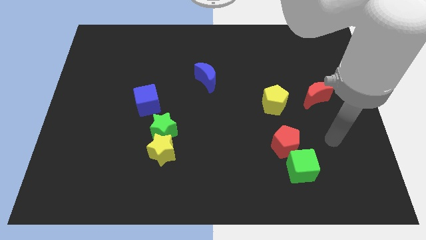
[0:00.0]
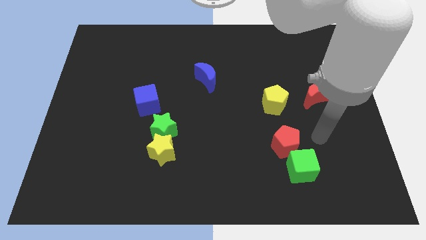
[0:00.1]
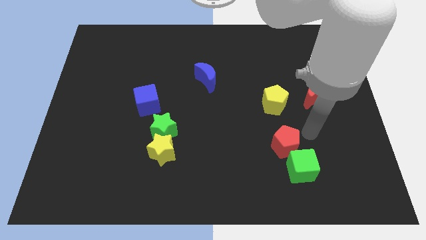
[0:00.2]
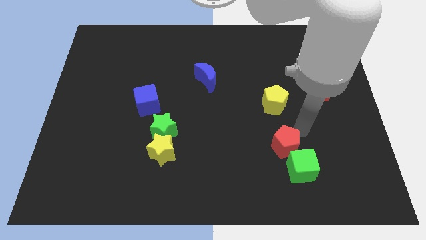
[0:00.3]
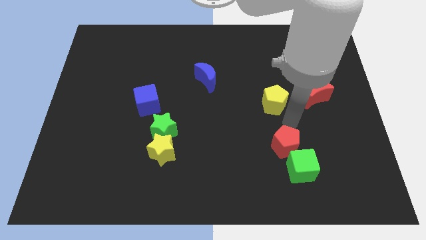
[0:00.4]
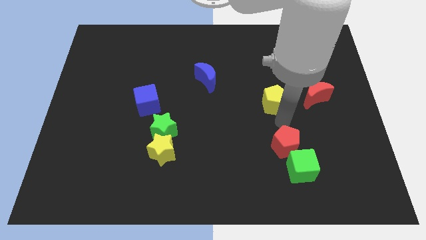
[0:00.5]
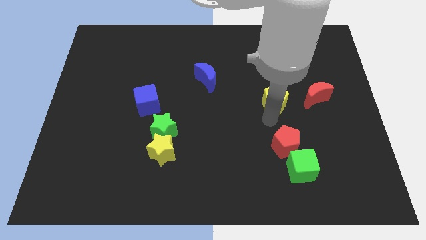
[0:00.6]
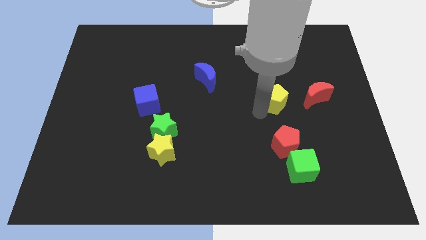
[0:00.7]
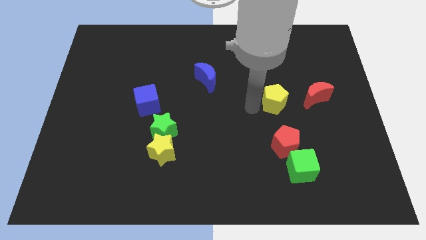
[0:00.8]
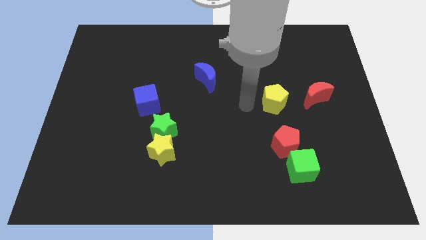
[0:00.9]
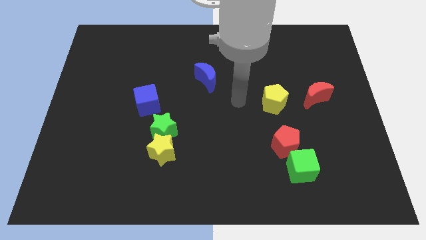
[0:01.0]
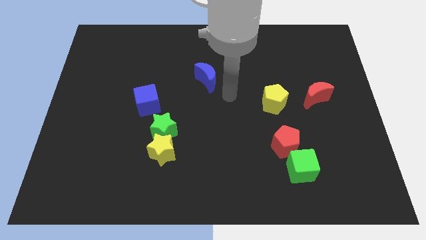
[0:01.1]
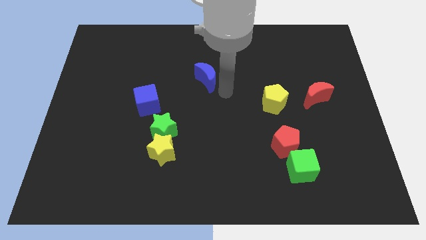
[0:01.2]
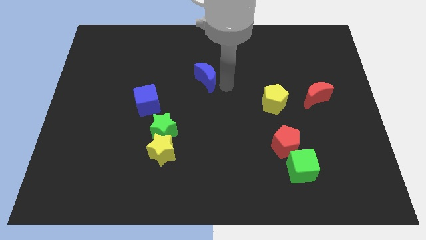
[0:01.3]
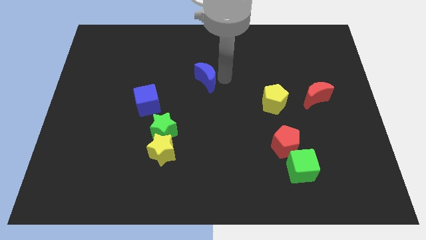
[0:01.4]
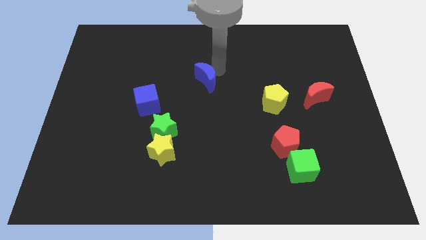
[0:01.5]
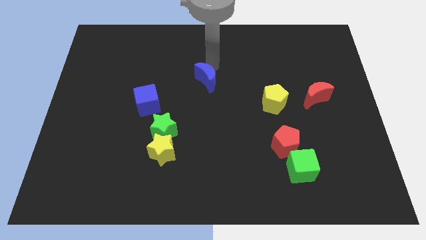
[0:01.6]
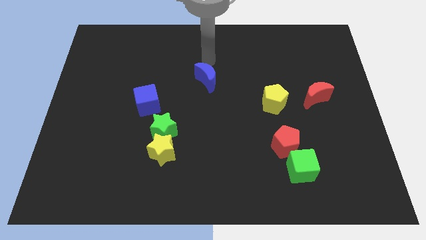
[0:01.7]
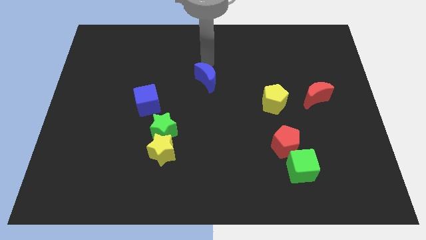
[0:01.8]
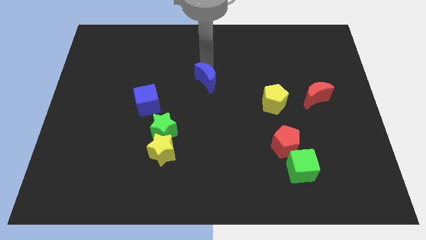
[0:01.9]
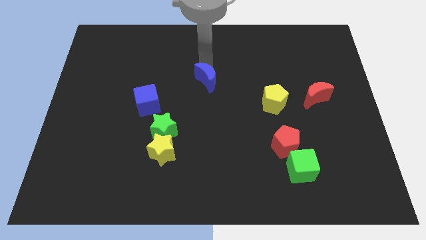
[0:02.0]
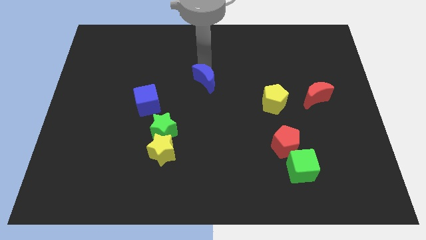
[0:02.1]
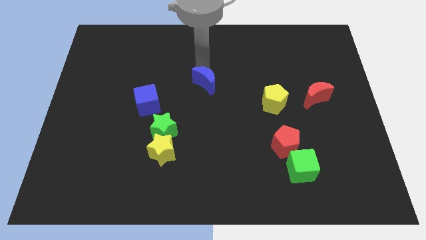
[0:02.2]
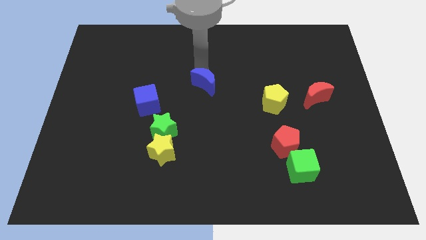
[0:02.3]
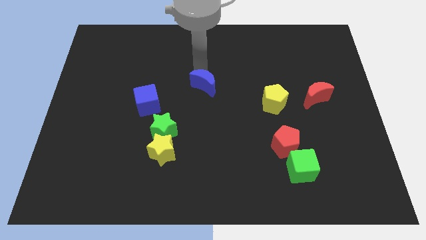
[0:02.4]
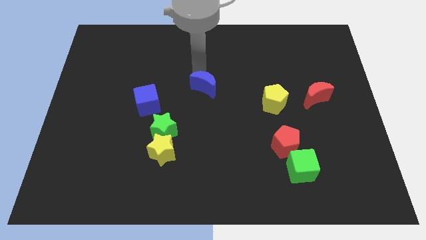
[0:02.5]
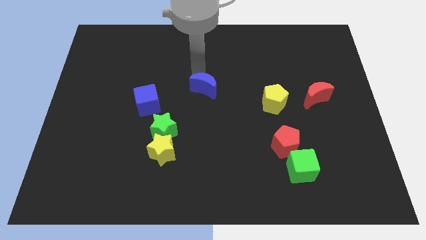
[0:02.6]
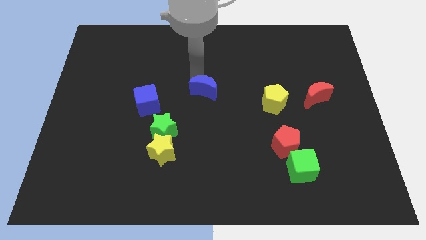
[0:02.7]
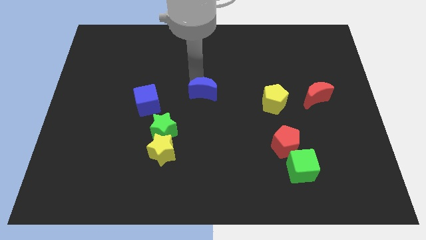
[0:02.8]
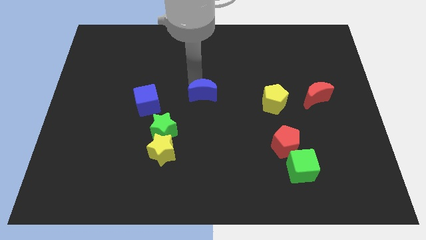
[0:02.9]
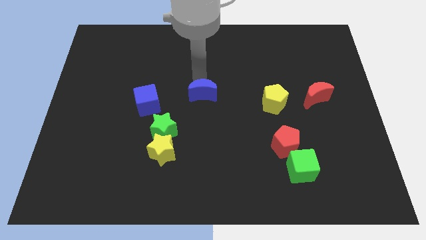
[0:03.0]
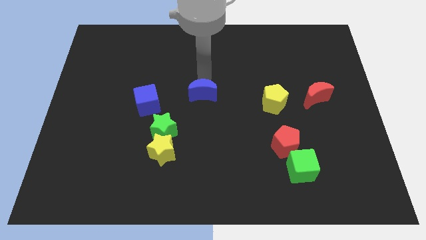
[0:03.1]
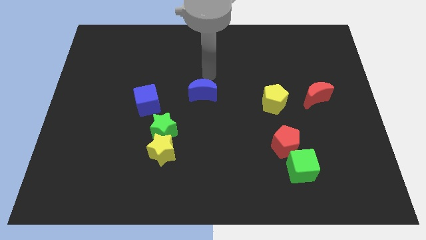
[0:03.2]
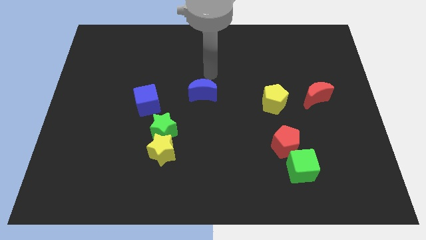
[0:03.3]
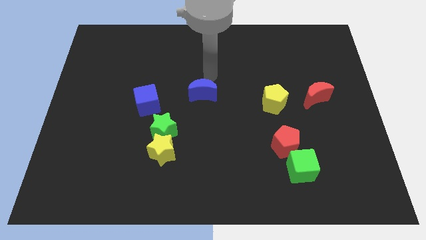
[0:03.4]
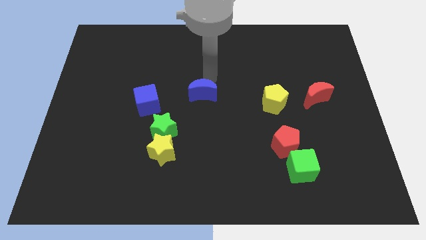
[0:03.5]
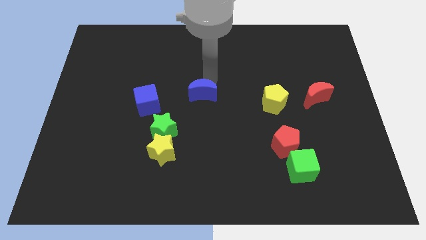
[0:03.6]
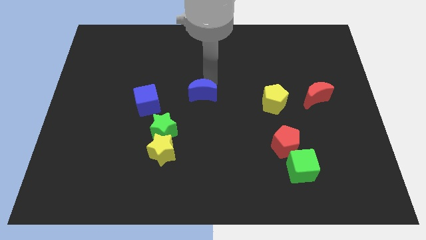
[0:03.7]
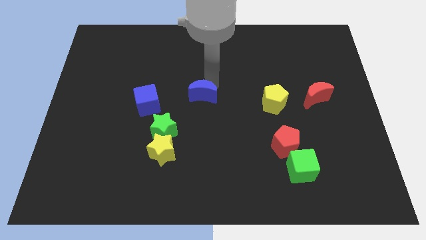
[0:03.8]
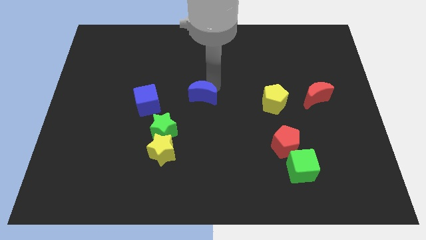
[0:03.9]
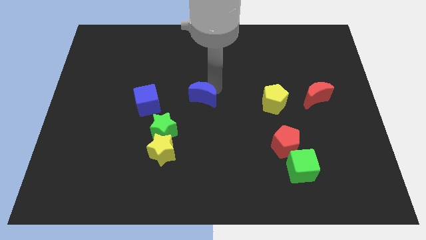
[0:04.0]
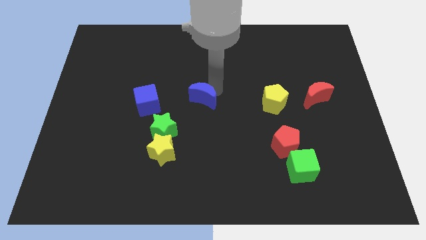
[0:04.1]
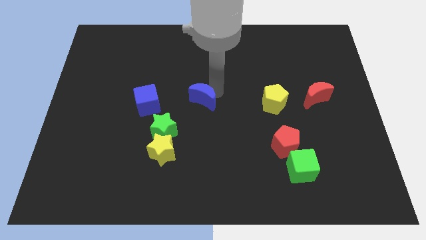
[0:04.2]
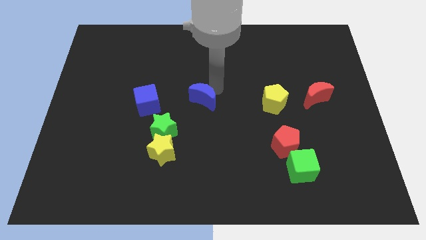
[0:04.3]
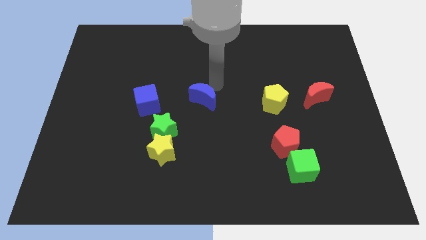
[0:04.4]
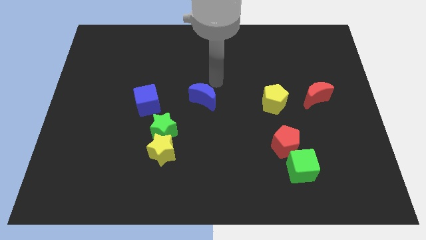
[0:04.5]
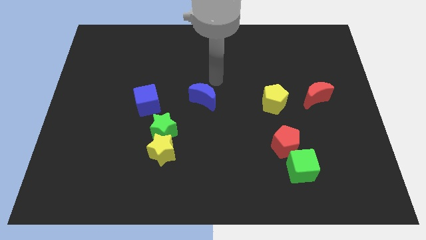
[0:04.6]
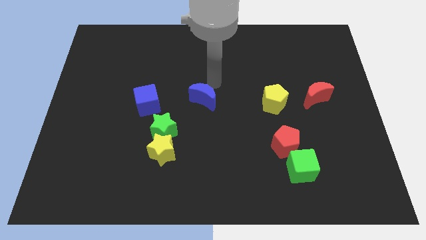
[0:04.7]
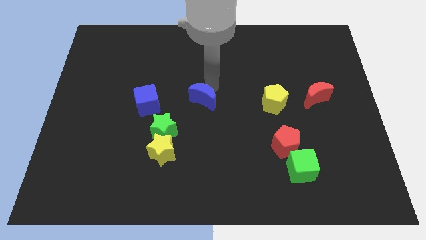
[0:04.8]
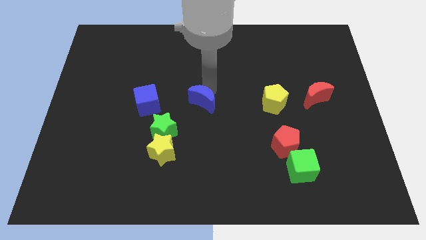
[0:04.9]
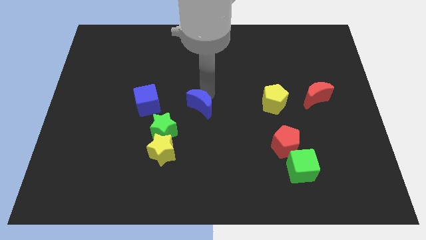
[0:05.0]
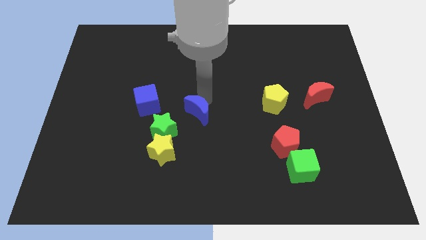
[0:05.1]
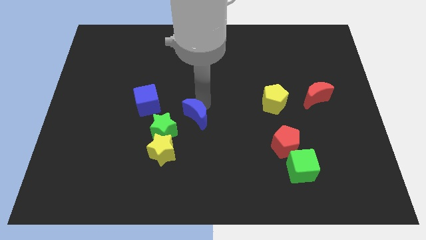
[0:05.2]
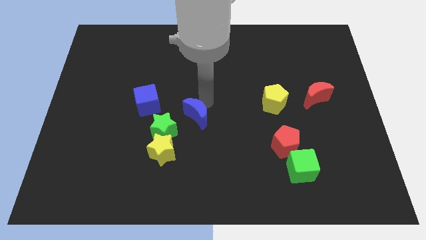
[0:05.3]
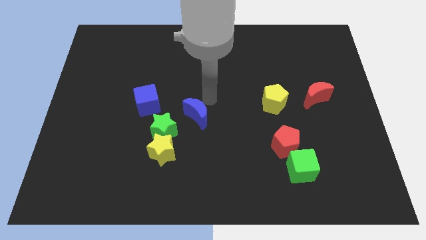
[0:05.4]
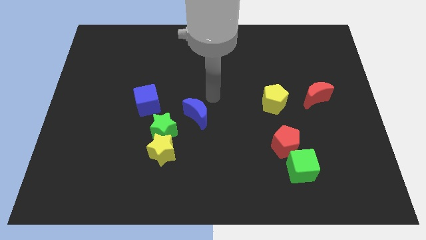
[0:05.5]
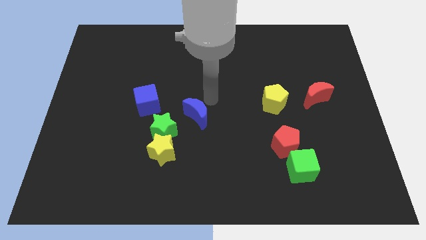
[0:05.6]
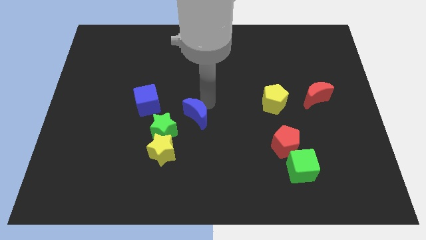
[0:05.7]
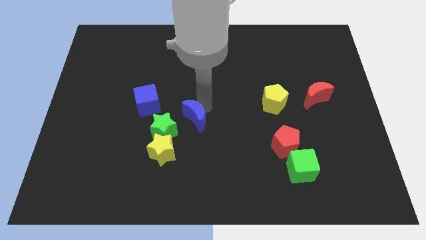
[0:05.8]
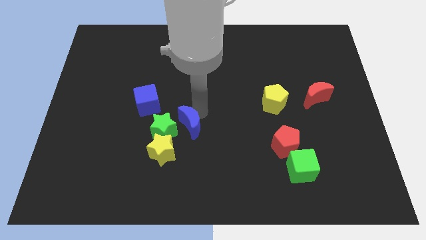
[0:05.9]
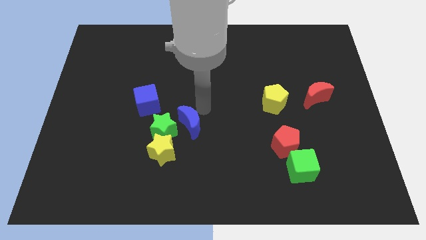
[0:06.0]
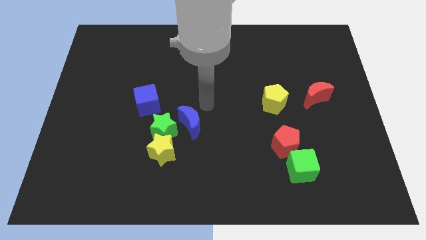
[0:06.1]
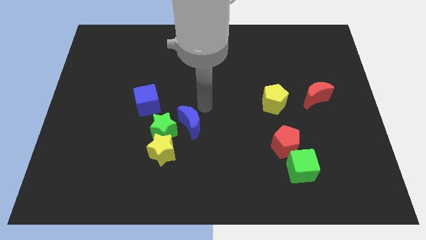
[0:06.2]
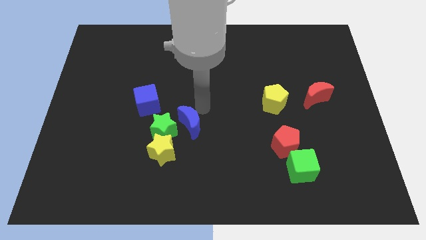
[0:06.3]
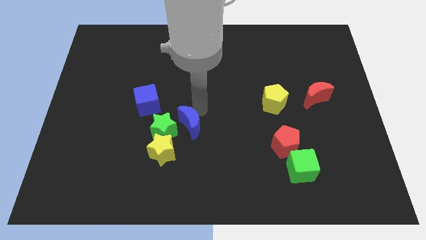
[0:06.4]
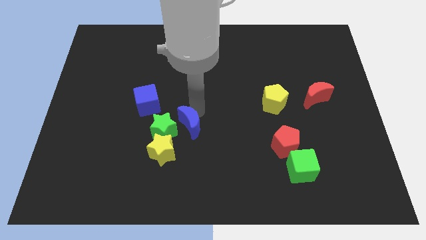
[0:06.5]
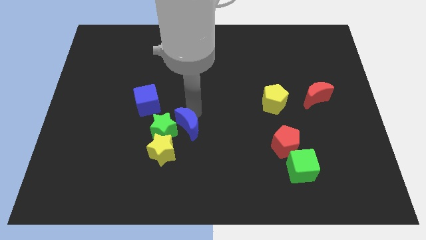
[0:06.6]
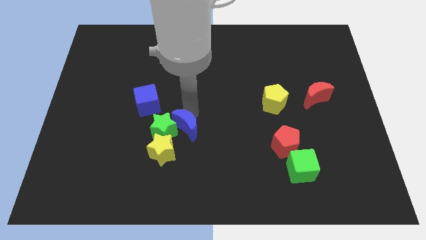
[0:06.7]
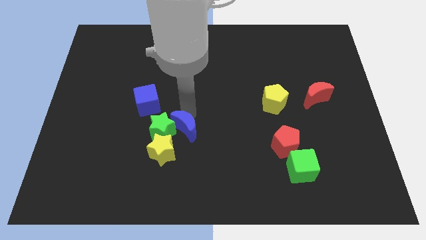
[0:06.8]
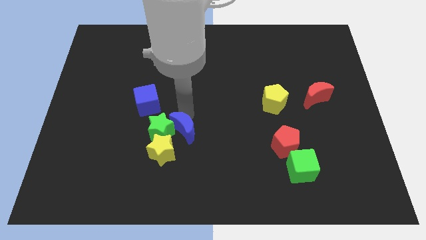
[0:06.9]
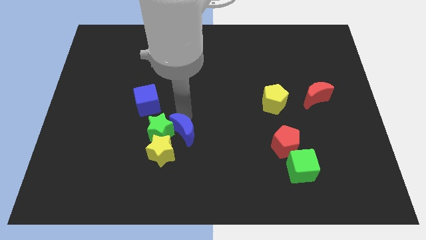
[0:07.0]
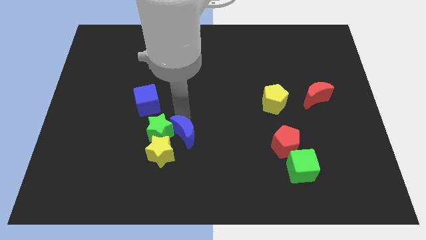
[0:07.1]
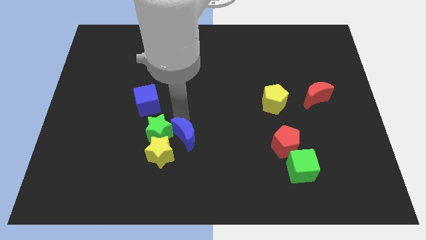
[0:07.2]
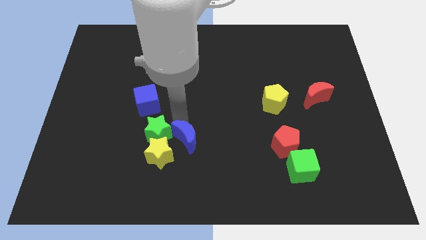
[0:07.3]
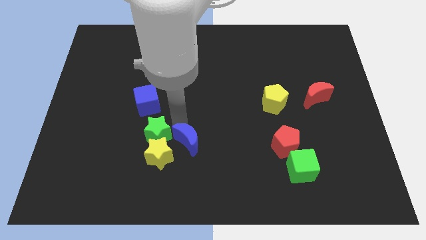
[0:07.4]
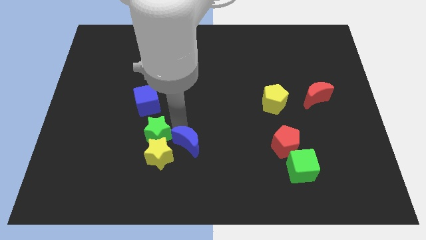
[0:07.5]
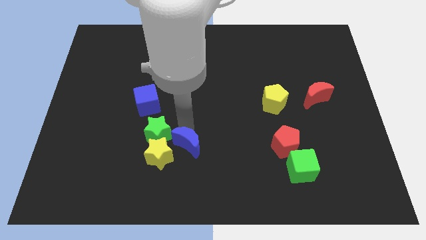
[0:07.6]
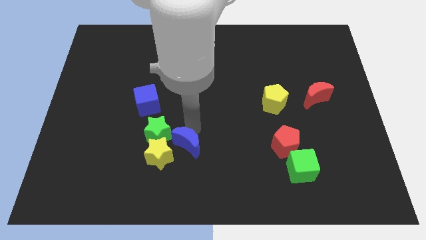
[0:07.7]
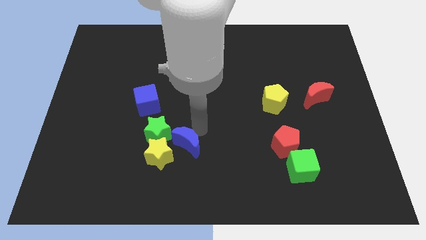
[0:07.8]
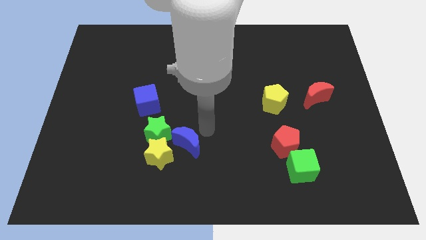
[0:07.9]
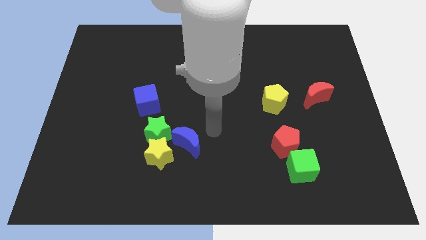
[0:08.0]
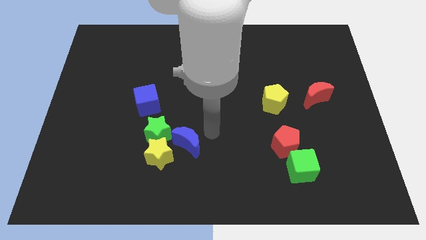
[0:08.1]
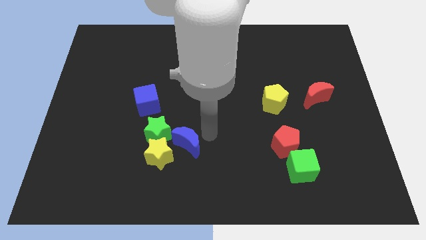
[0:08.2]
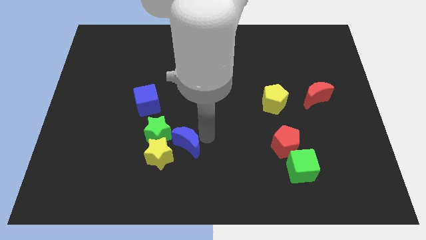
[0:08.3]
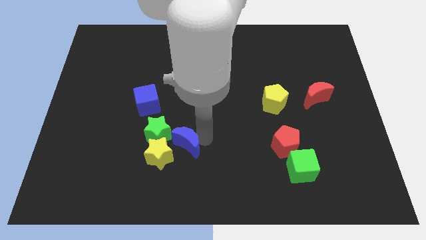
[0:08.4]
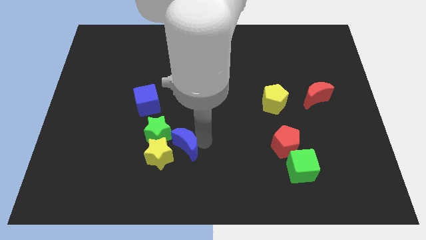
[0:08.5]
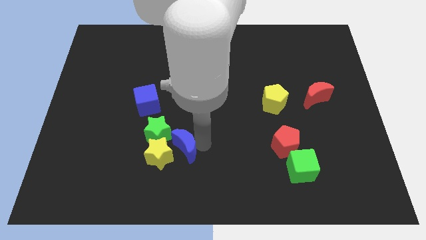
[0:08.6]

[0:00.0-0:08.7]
push the blue moon towards the yellow star
